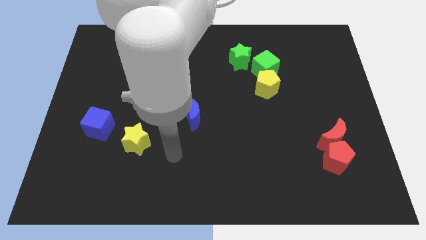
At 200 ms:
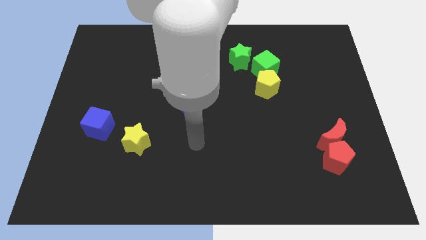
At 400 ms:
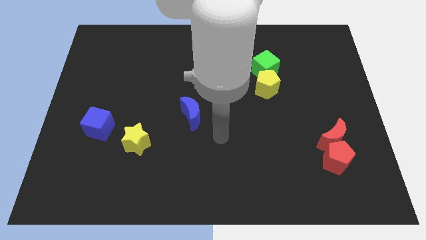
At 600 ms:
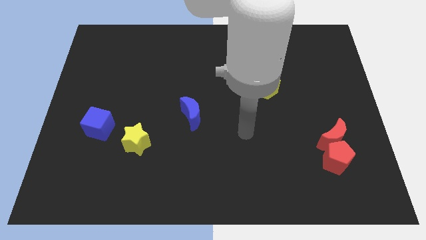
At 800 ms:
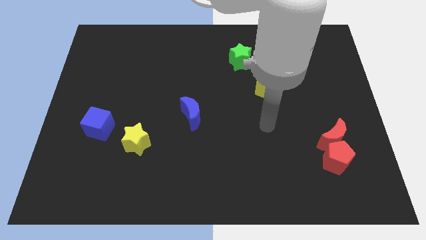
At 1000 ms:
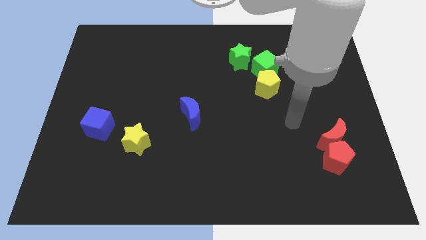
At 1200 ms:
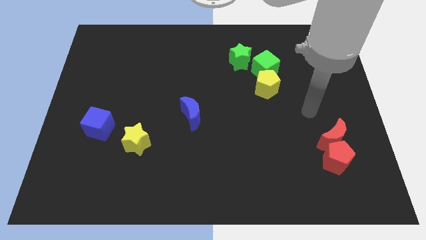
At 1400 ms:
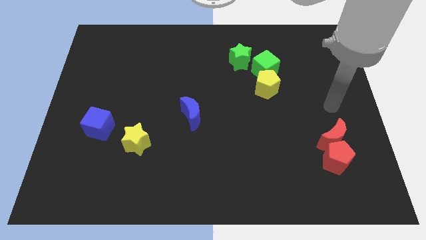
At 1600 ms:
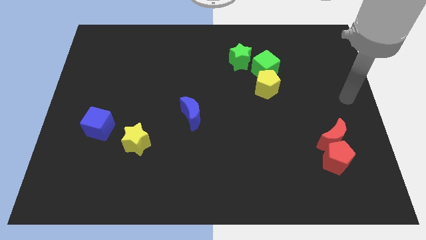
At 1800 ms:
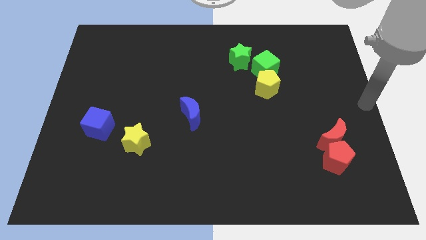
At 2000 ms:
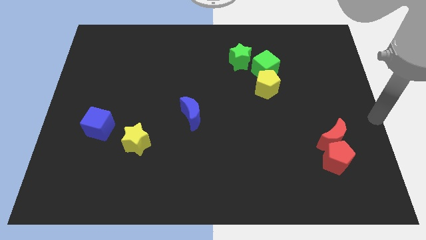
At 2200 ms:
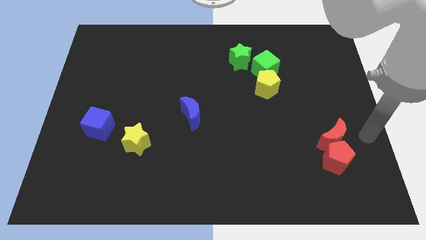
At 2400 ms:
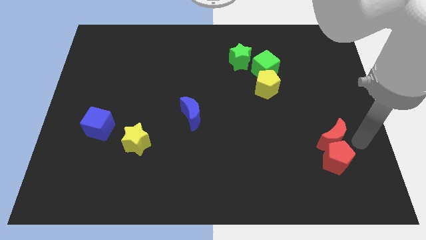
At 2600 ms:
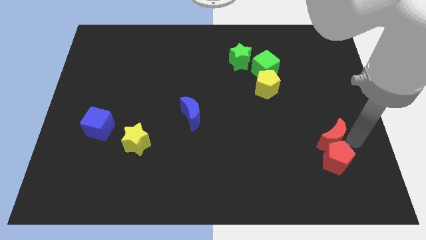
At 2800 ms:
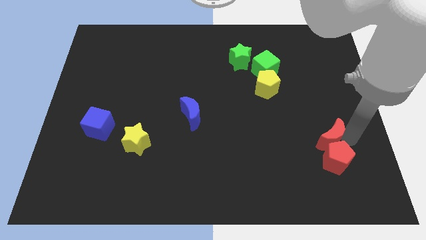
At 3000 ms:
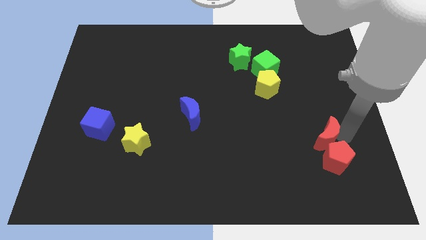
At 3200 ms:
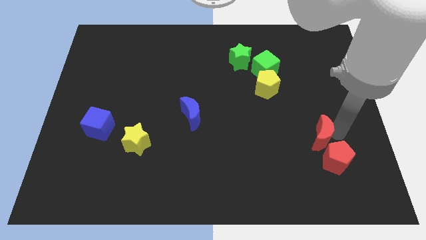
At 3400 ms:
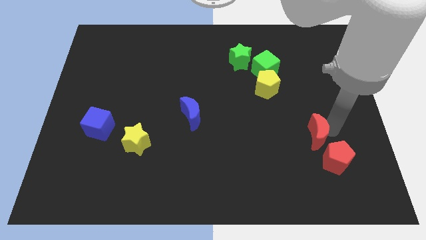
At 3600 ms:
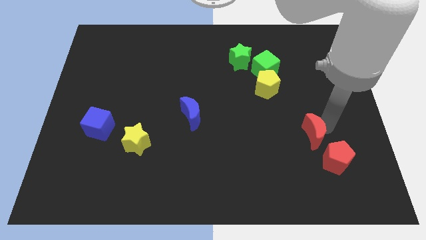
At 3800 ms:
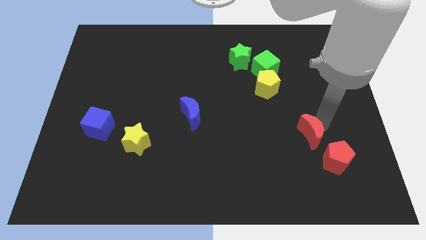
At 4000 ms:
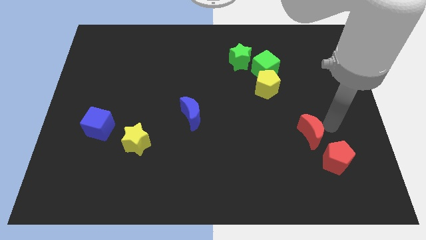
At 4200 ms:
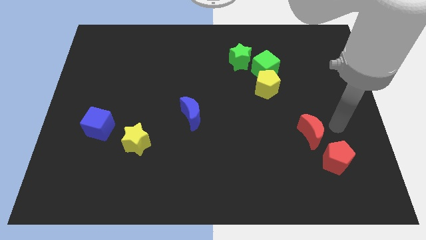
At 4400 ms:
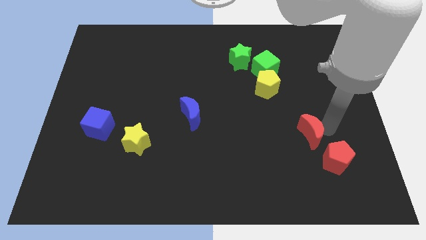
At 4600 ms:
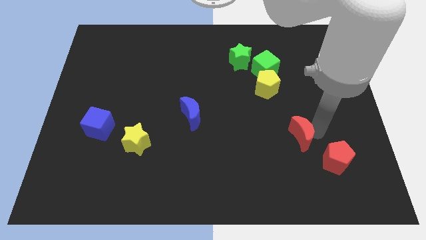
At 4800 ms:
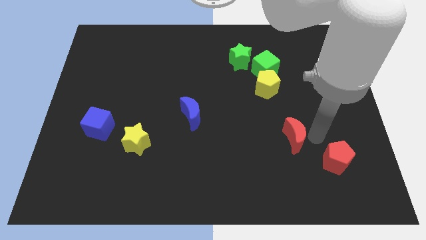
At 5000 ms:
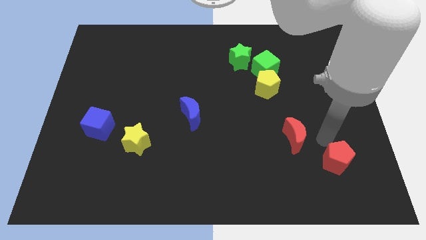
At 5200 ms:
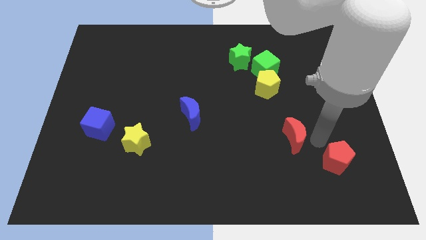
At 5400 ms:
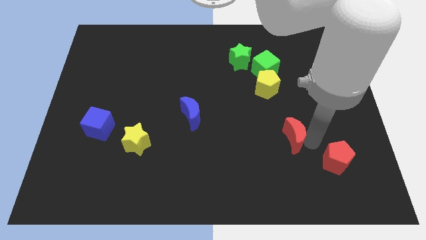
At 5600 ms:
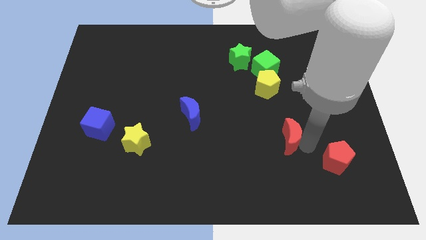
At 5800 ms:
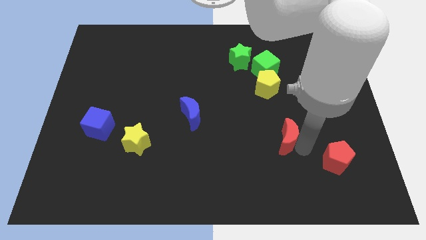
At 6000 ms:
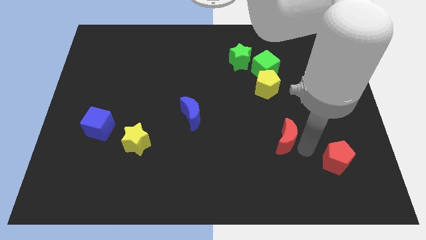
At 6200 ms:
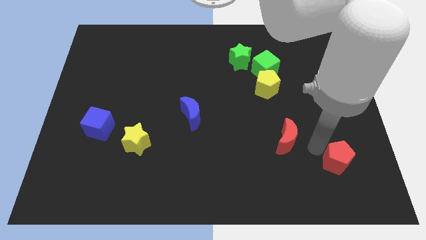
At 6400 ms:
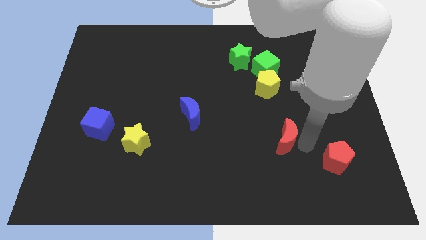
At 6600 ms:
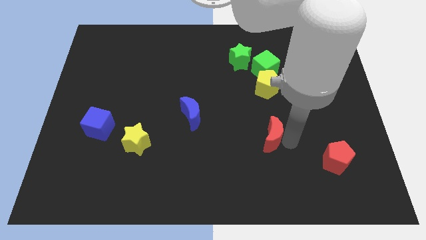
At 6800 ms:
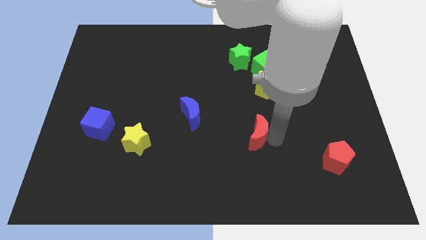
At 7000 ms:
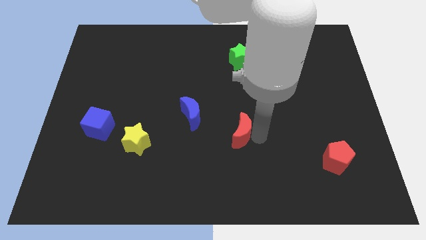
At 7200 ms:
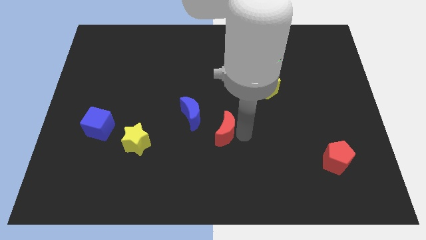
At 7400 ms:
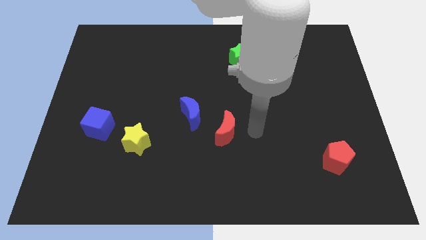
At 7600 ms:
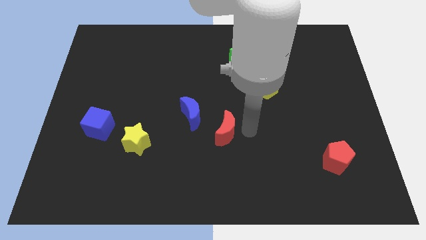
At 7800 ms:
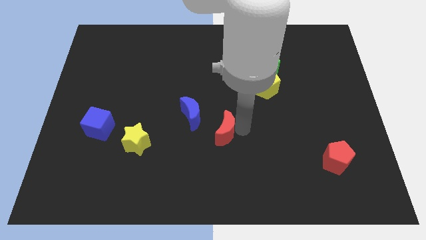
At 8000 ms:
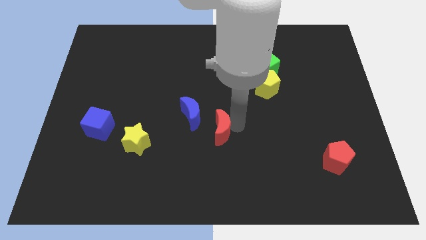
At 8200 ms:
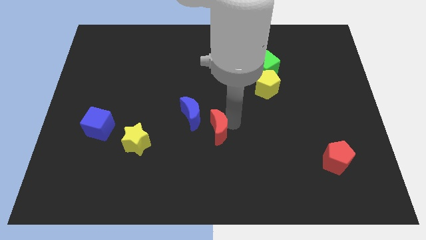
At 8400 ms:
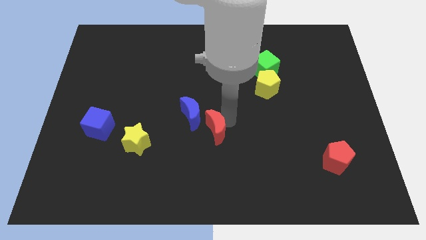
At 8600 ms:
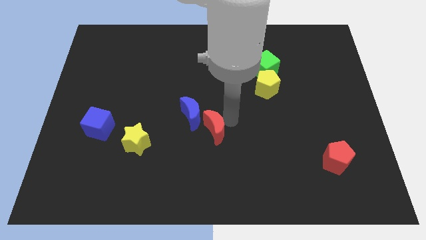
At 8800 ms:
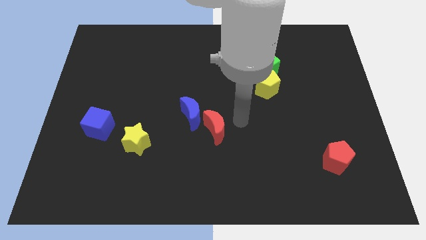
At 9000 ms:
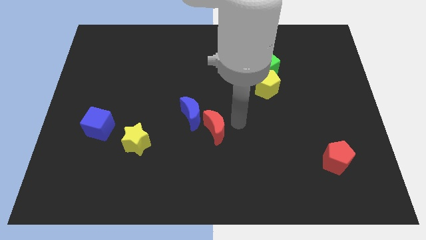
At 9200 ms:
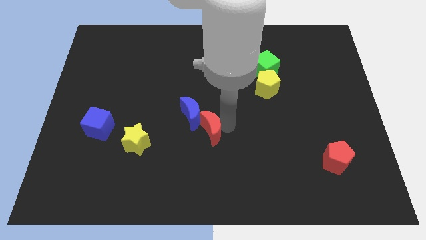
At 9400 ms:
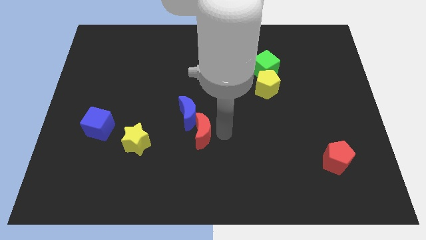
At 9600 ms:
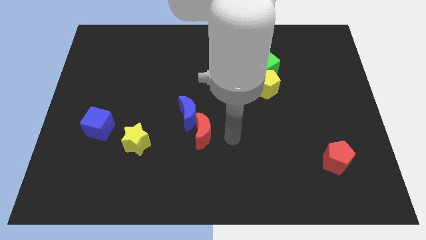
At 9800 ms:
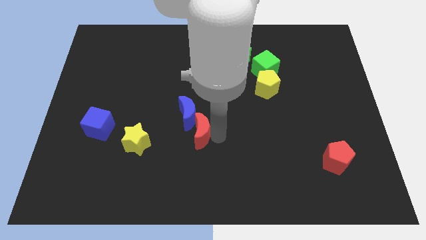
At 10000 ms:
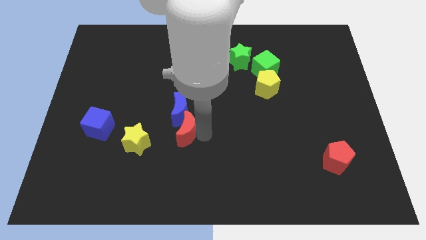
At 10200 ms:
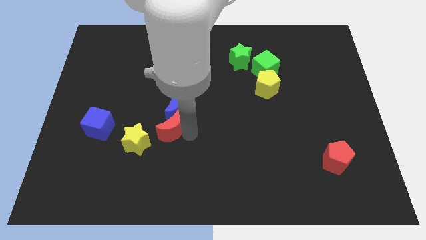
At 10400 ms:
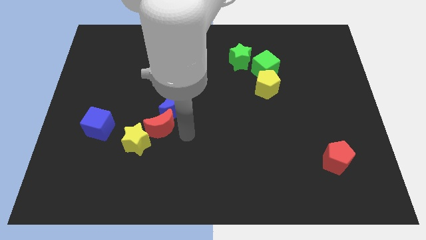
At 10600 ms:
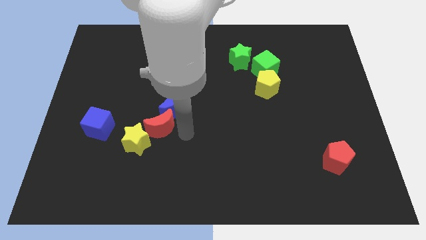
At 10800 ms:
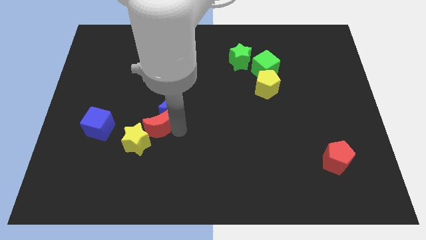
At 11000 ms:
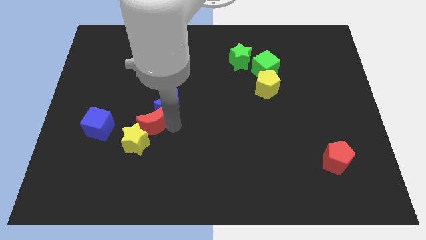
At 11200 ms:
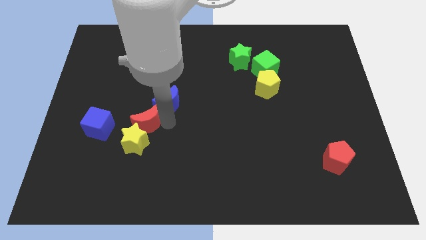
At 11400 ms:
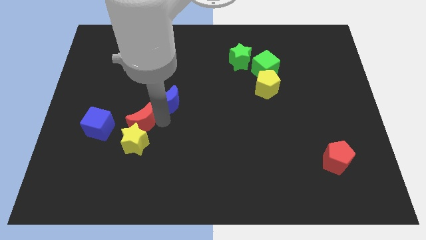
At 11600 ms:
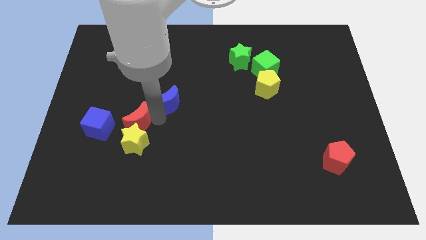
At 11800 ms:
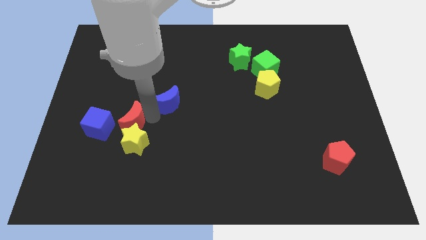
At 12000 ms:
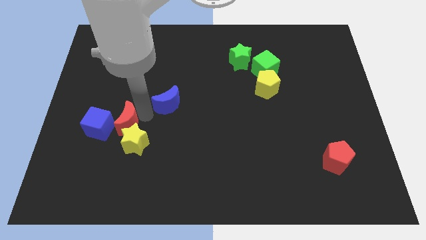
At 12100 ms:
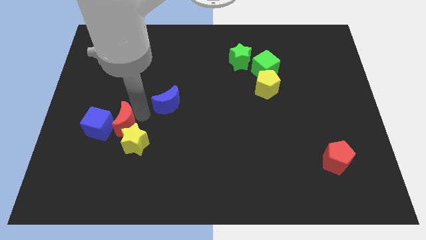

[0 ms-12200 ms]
move the red moon close to the blue cube

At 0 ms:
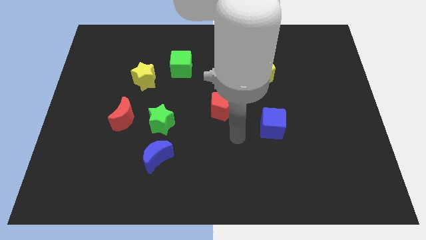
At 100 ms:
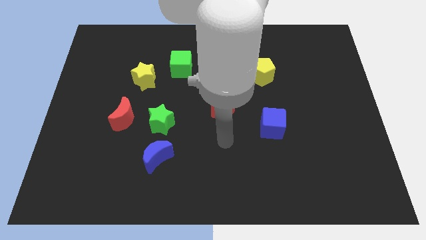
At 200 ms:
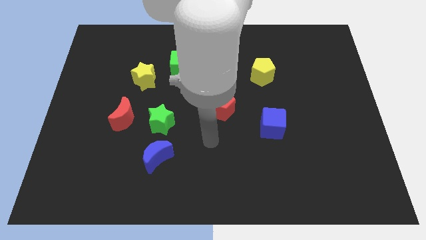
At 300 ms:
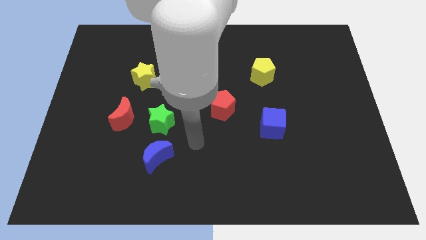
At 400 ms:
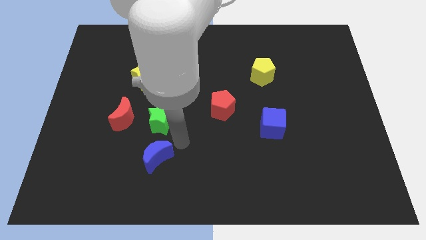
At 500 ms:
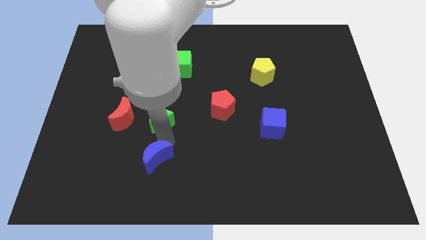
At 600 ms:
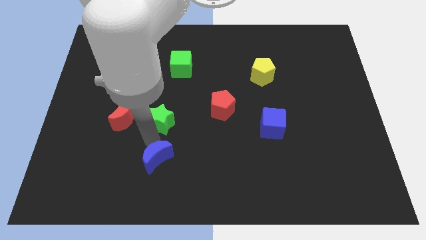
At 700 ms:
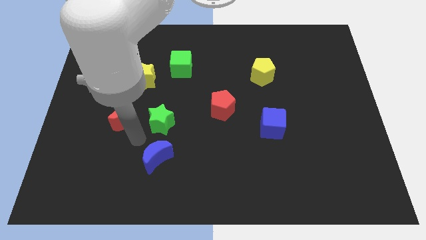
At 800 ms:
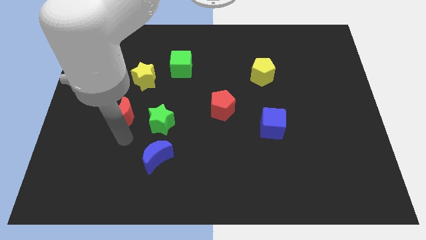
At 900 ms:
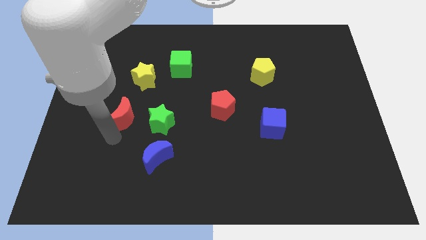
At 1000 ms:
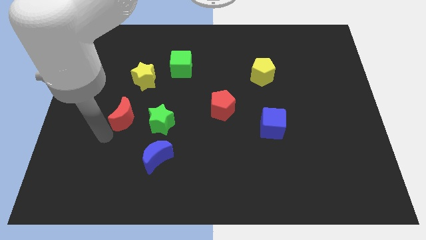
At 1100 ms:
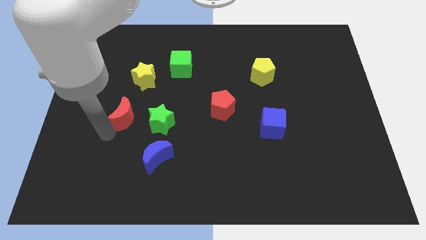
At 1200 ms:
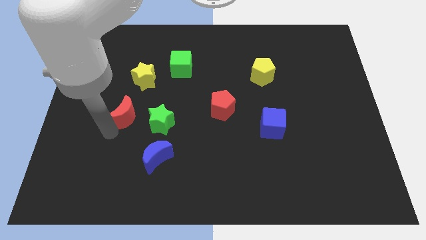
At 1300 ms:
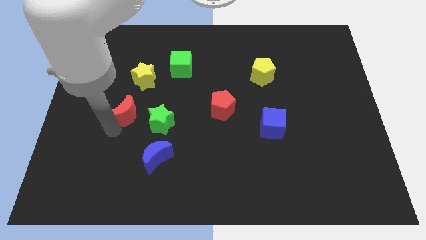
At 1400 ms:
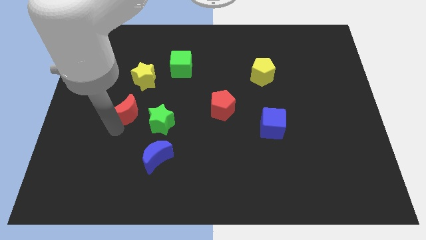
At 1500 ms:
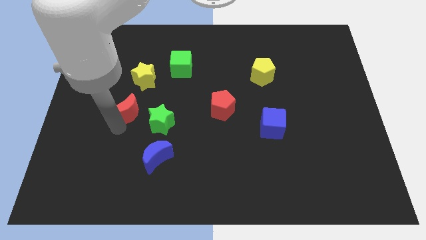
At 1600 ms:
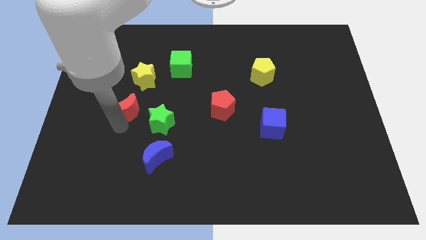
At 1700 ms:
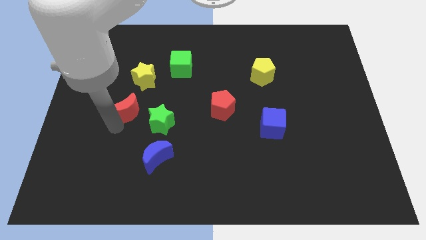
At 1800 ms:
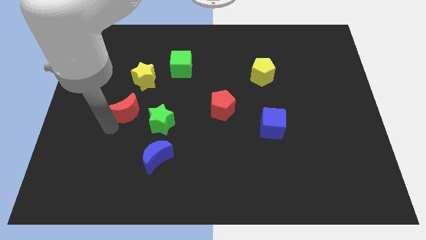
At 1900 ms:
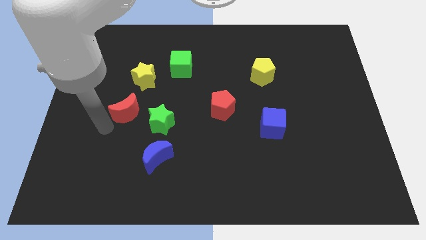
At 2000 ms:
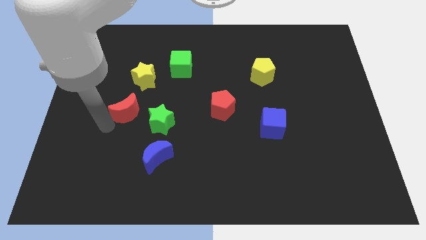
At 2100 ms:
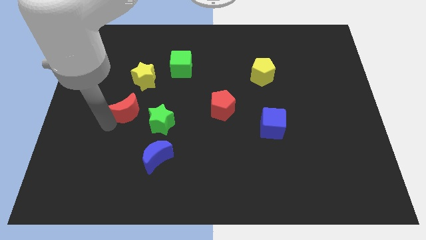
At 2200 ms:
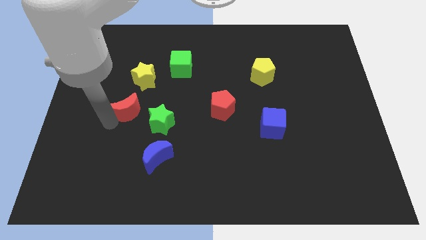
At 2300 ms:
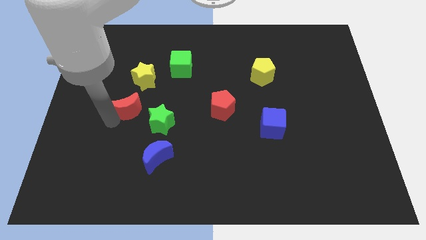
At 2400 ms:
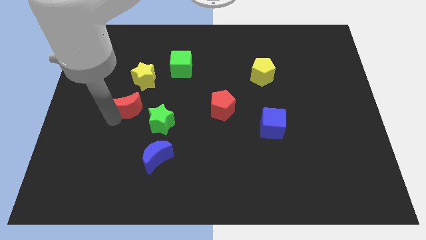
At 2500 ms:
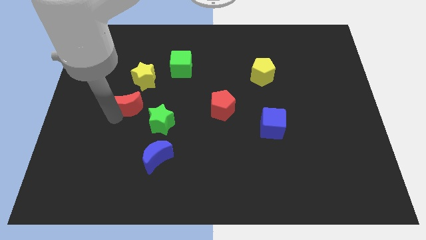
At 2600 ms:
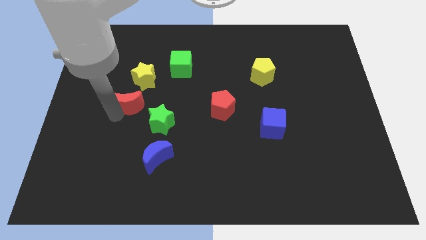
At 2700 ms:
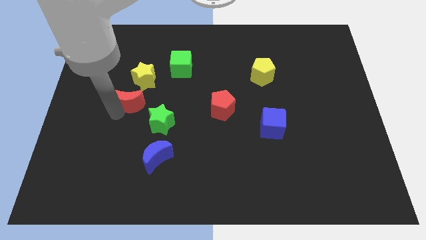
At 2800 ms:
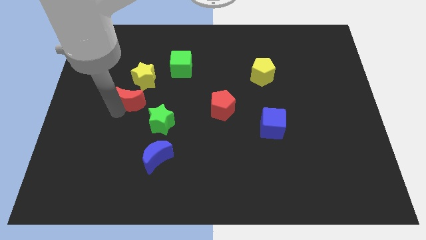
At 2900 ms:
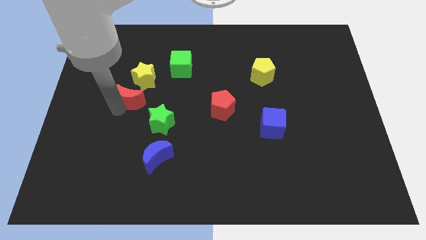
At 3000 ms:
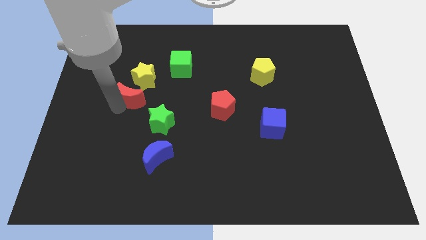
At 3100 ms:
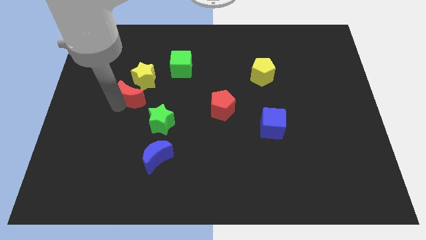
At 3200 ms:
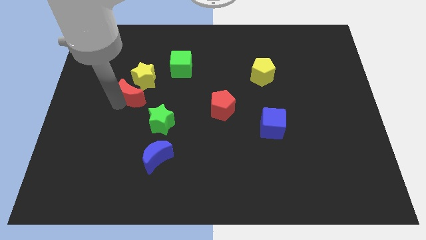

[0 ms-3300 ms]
move the red moon to the yellow star
